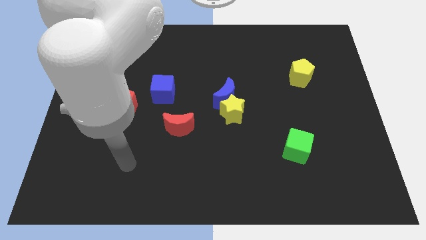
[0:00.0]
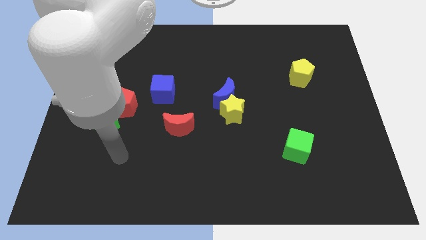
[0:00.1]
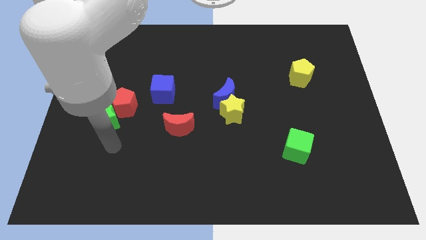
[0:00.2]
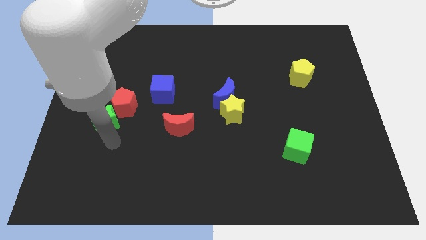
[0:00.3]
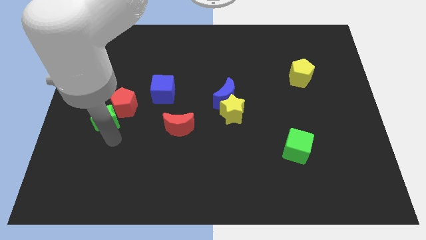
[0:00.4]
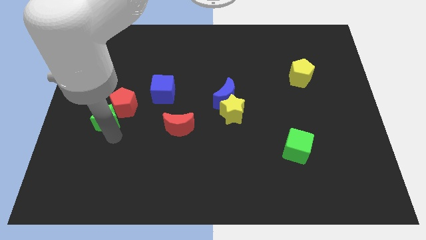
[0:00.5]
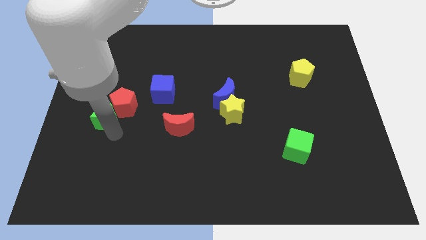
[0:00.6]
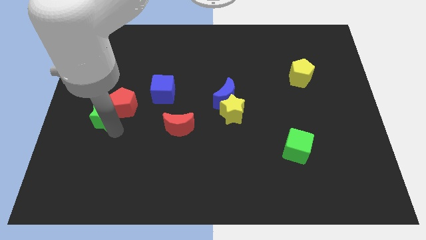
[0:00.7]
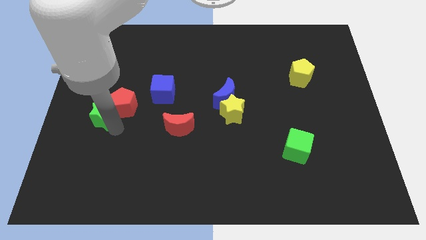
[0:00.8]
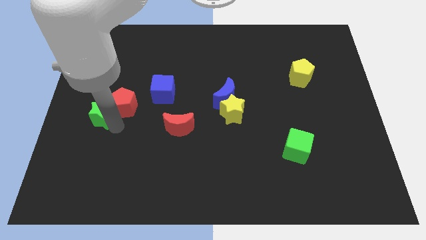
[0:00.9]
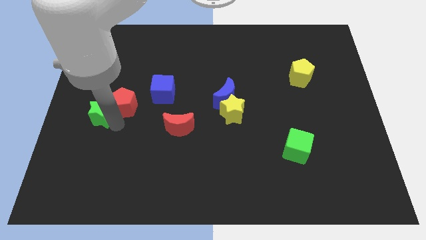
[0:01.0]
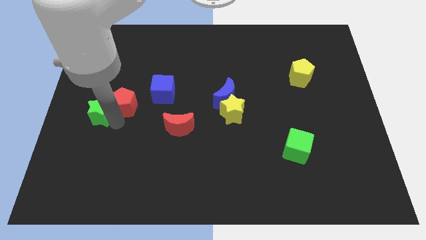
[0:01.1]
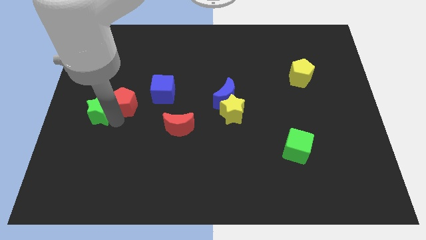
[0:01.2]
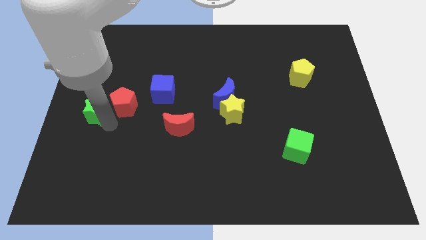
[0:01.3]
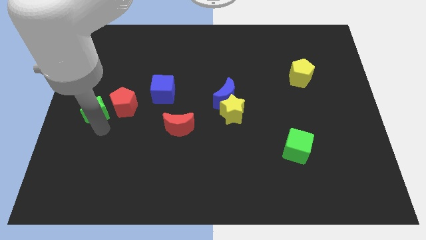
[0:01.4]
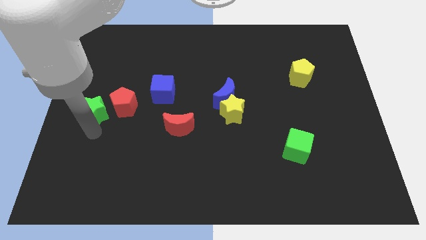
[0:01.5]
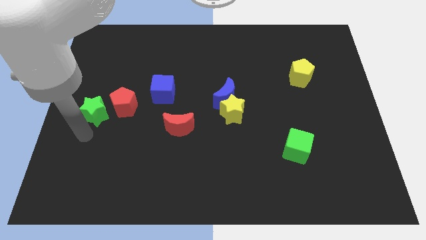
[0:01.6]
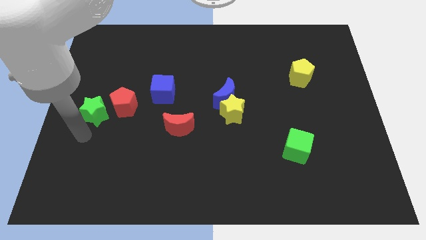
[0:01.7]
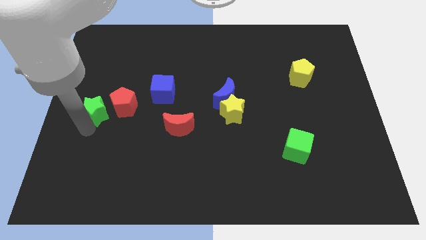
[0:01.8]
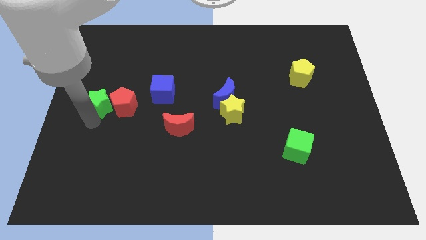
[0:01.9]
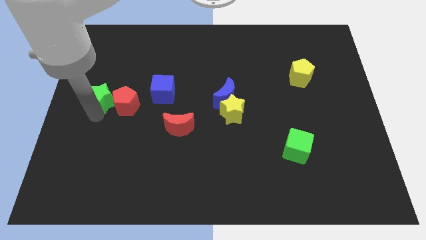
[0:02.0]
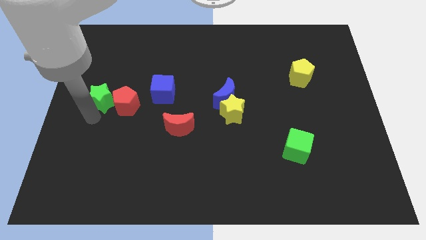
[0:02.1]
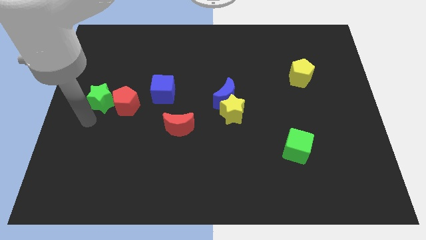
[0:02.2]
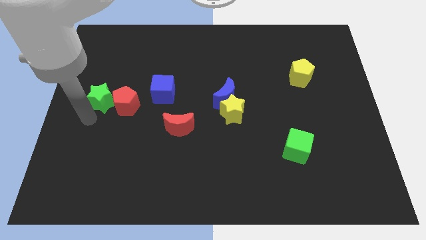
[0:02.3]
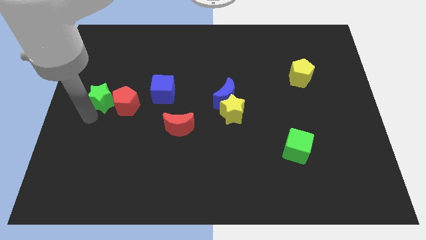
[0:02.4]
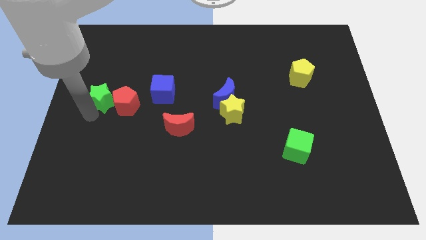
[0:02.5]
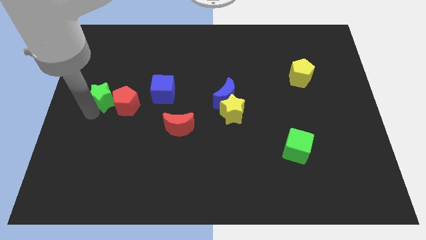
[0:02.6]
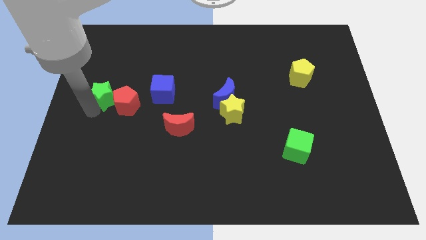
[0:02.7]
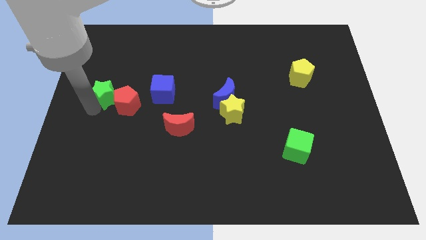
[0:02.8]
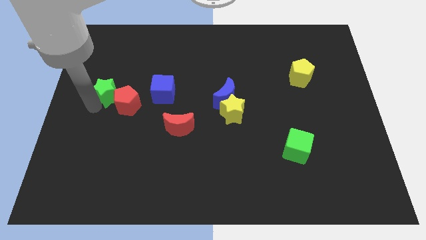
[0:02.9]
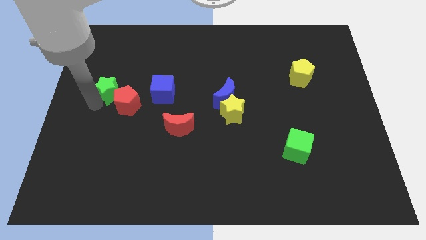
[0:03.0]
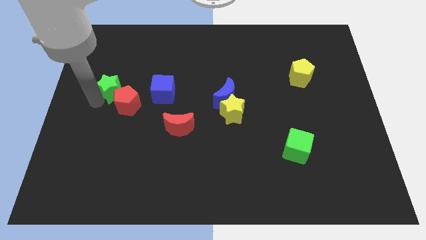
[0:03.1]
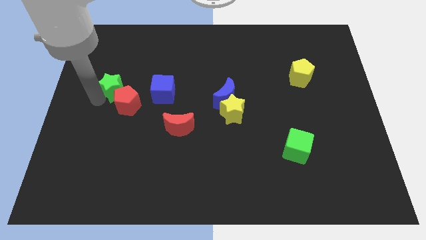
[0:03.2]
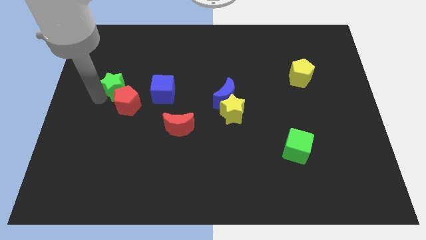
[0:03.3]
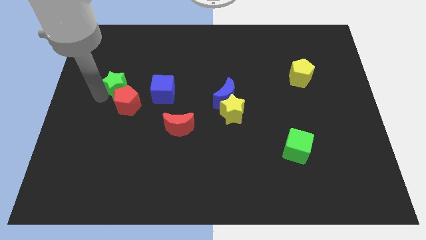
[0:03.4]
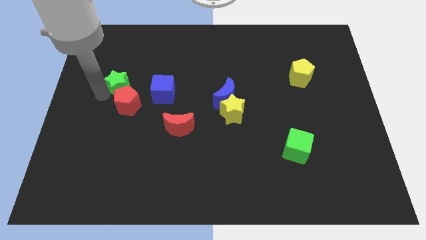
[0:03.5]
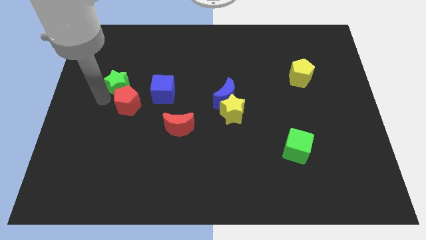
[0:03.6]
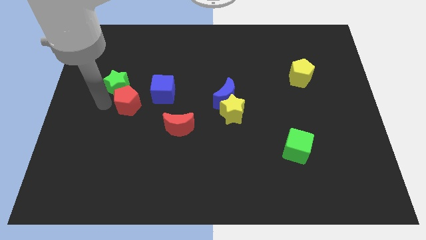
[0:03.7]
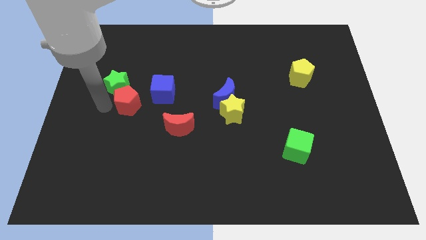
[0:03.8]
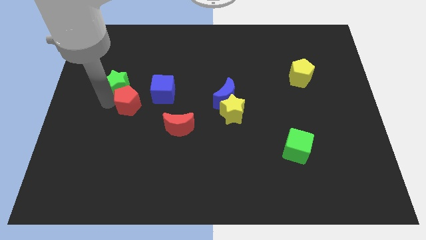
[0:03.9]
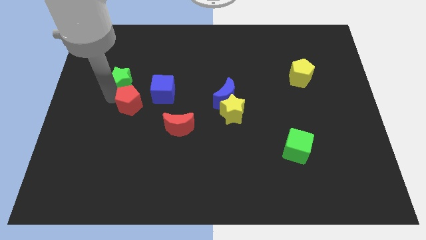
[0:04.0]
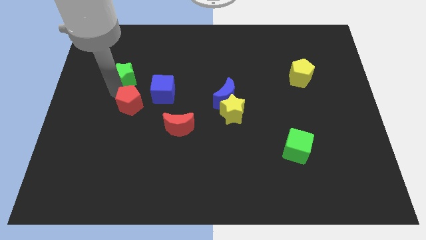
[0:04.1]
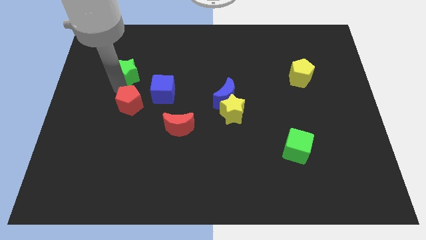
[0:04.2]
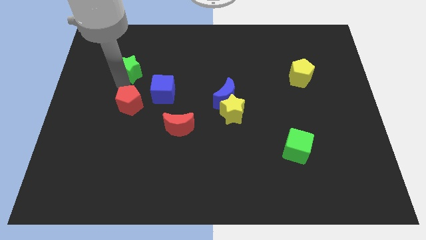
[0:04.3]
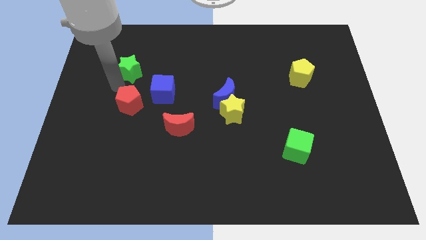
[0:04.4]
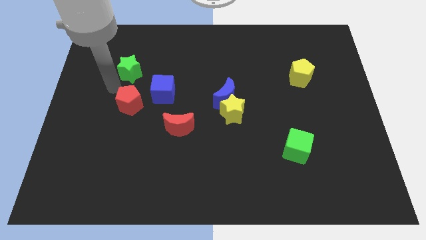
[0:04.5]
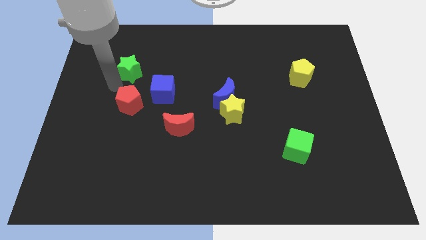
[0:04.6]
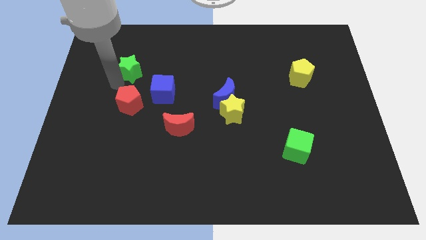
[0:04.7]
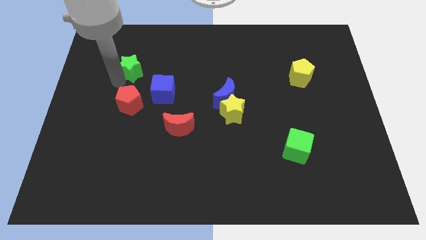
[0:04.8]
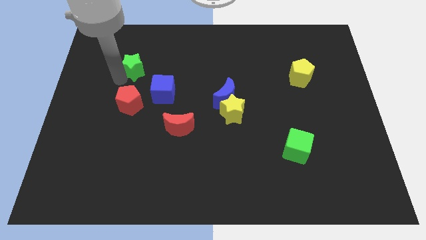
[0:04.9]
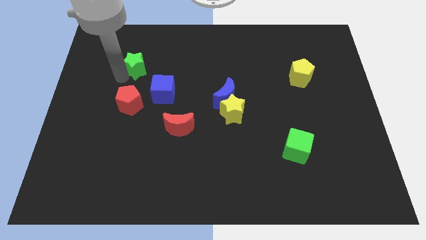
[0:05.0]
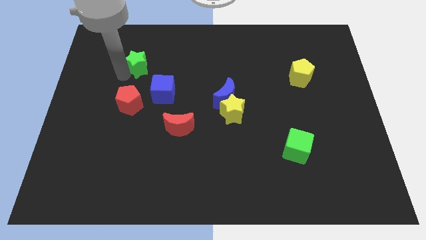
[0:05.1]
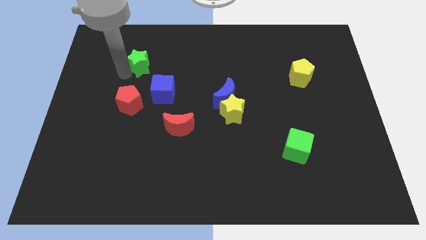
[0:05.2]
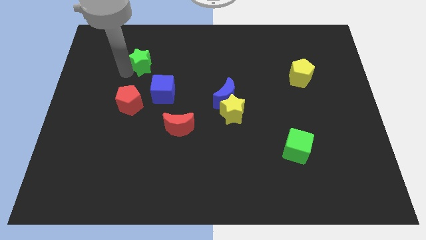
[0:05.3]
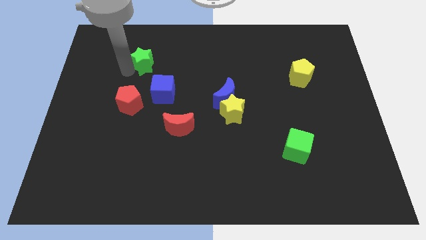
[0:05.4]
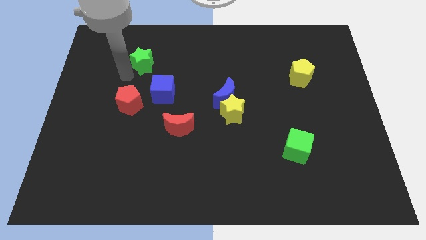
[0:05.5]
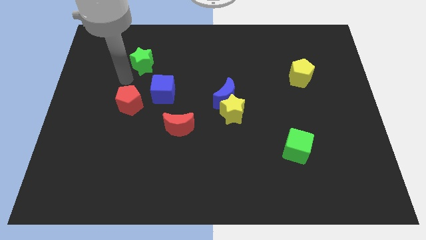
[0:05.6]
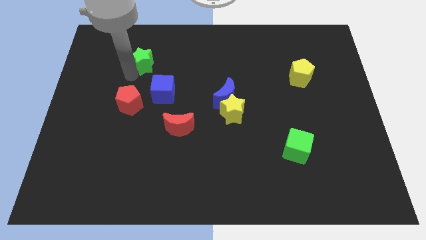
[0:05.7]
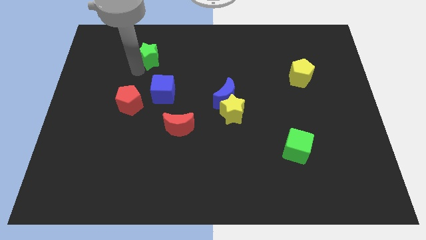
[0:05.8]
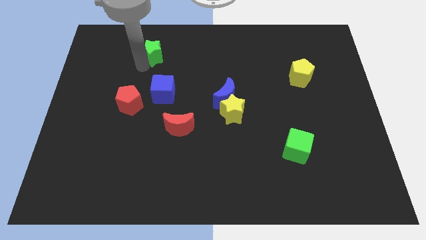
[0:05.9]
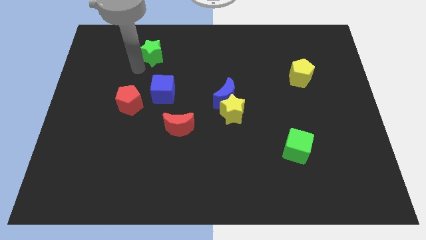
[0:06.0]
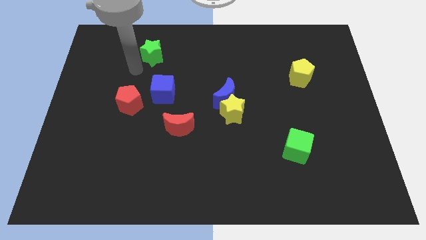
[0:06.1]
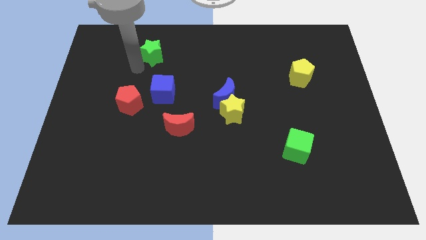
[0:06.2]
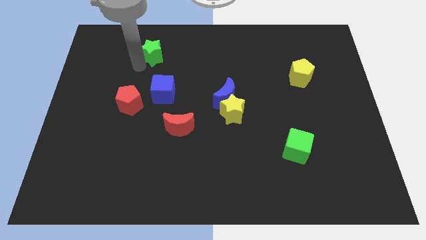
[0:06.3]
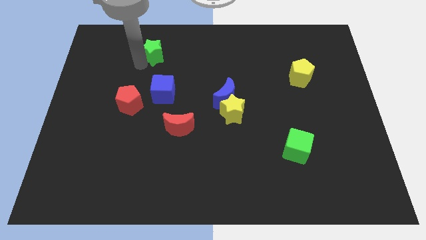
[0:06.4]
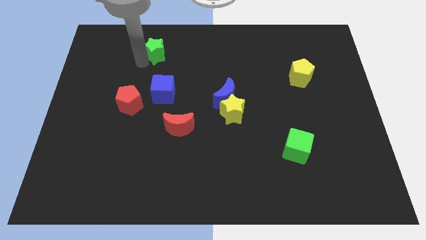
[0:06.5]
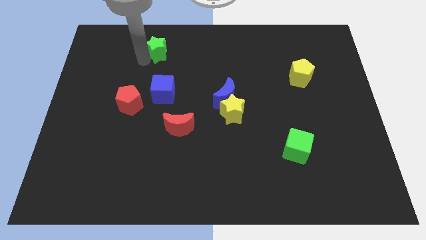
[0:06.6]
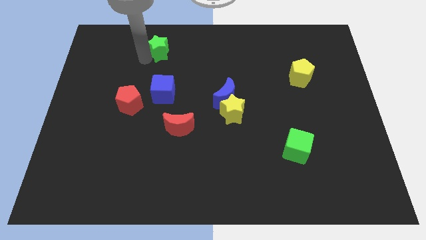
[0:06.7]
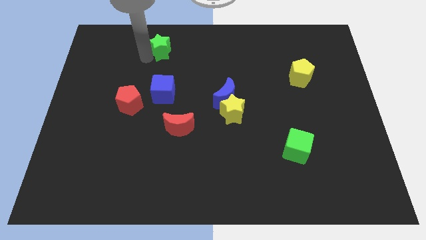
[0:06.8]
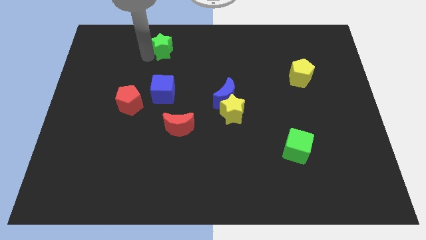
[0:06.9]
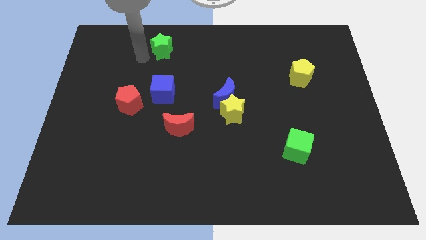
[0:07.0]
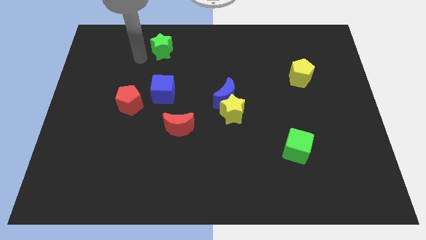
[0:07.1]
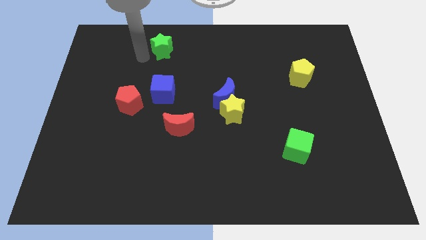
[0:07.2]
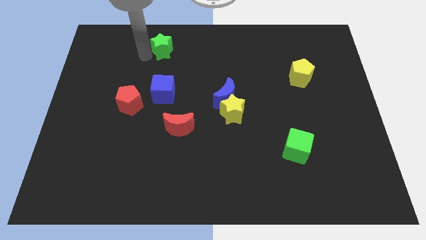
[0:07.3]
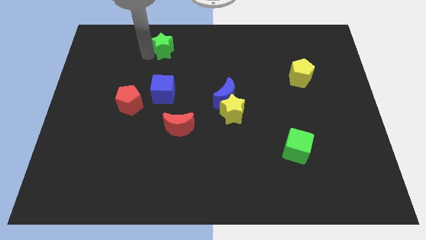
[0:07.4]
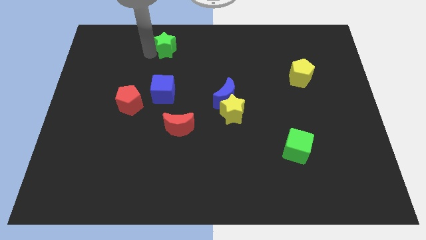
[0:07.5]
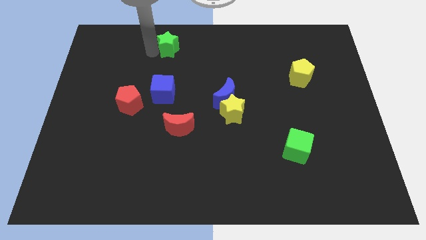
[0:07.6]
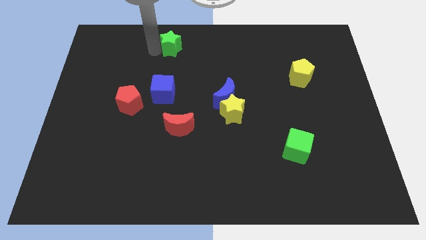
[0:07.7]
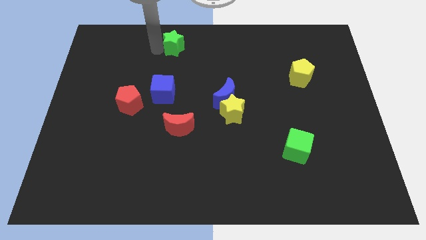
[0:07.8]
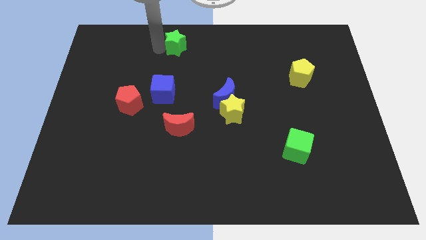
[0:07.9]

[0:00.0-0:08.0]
push the green star to the top

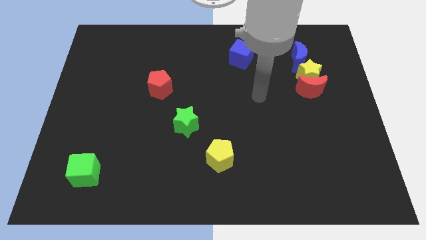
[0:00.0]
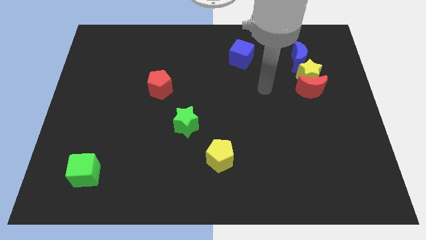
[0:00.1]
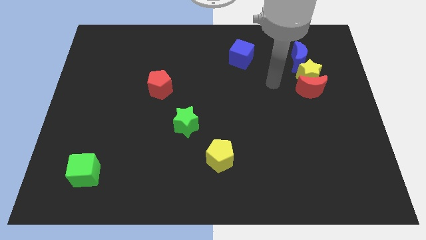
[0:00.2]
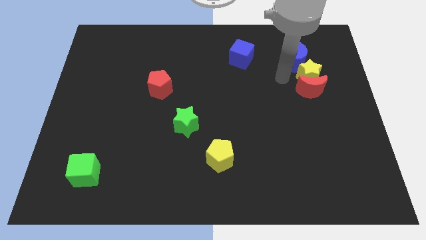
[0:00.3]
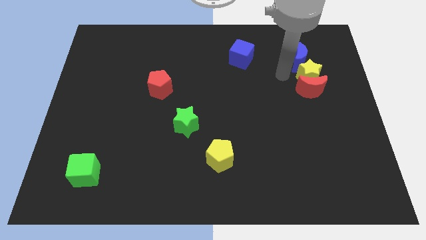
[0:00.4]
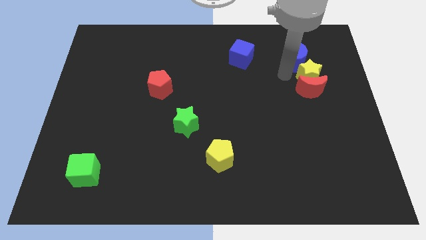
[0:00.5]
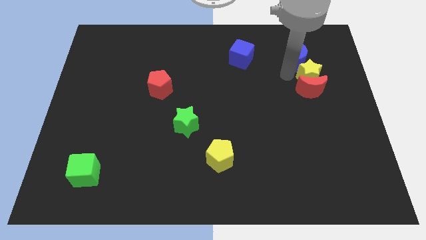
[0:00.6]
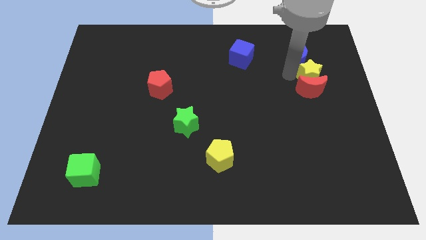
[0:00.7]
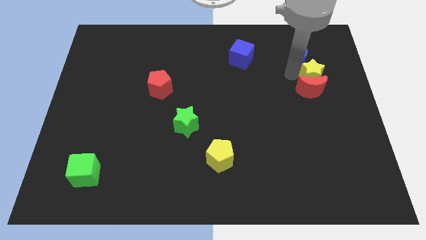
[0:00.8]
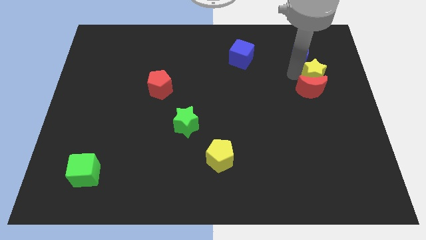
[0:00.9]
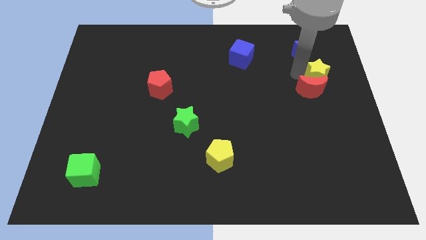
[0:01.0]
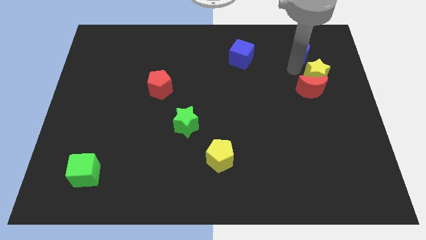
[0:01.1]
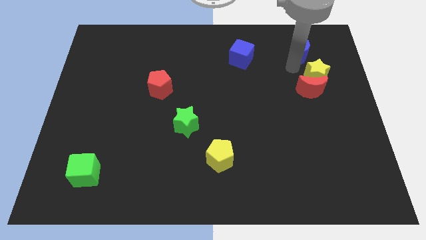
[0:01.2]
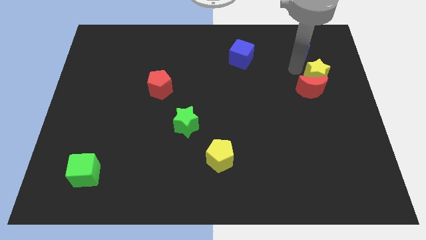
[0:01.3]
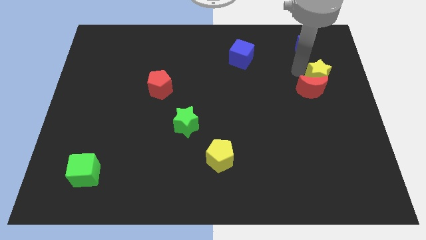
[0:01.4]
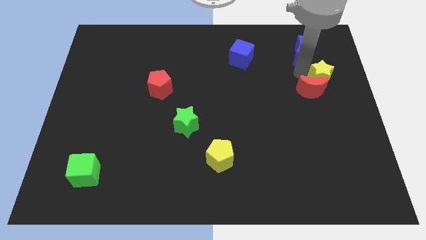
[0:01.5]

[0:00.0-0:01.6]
put the yellow star to the right side
